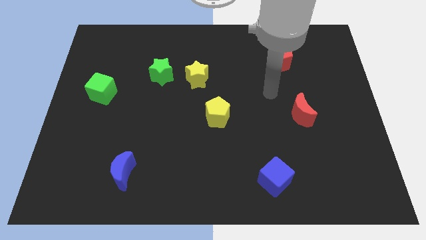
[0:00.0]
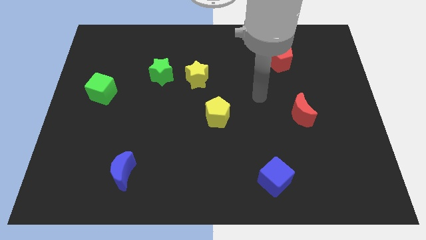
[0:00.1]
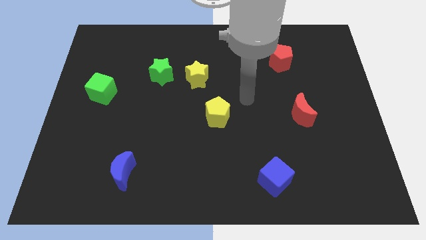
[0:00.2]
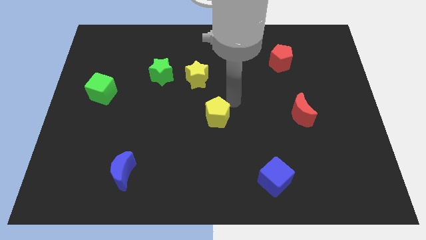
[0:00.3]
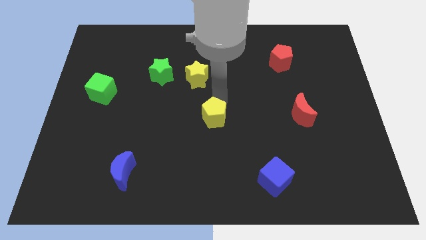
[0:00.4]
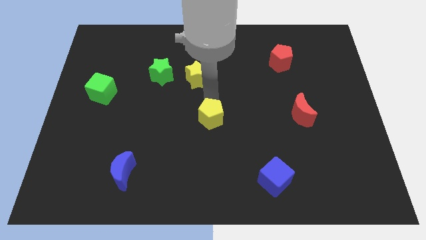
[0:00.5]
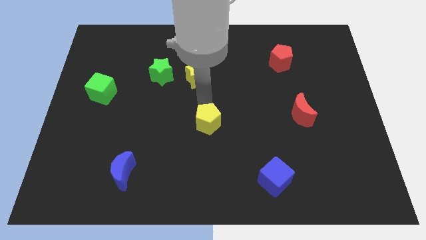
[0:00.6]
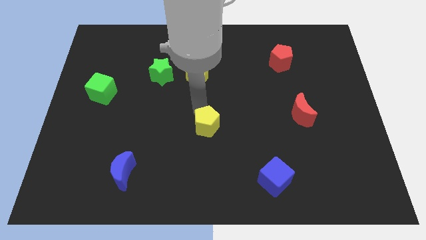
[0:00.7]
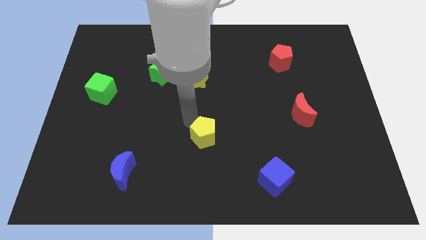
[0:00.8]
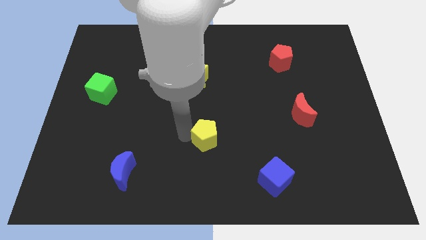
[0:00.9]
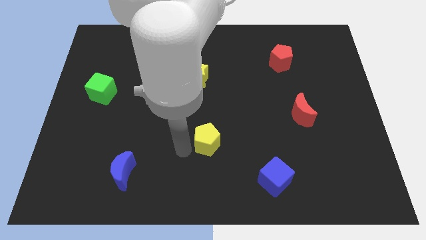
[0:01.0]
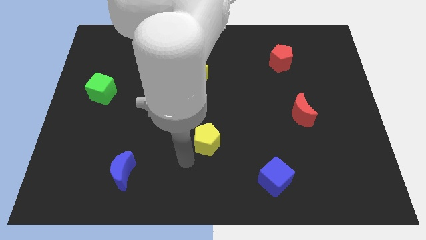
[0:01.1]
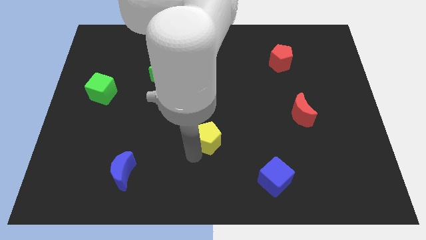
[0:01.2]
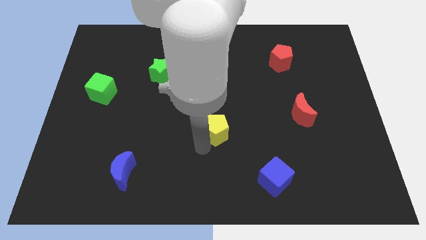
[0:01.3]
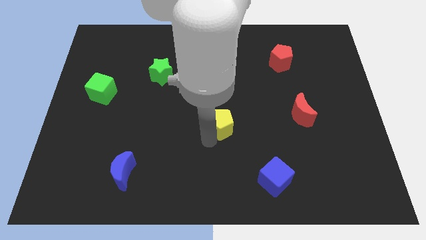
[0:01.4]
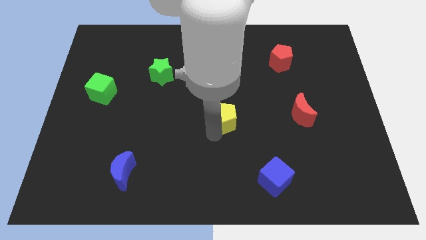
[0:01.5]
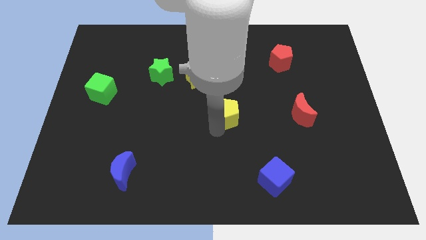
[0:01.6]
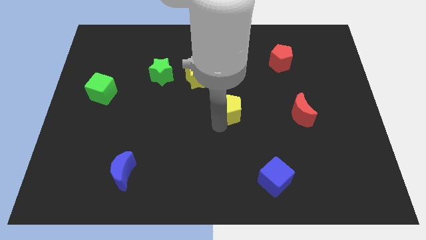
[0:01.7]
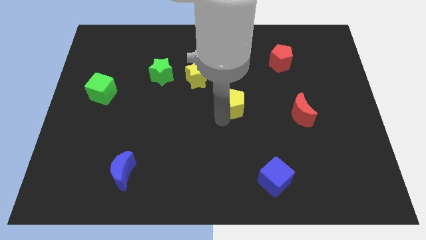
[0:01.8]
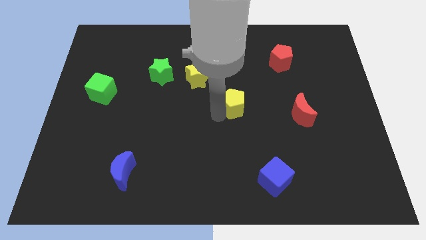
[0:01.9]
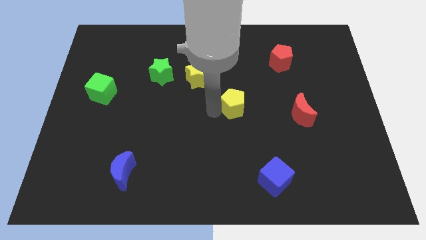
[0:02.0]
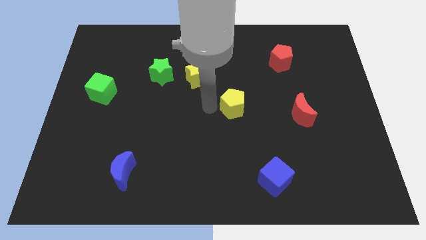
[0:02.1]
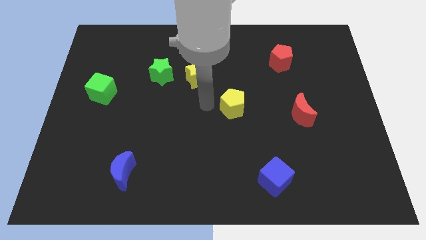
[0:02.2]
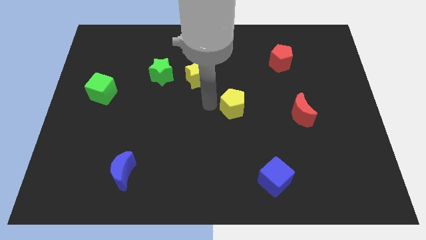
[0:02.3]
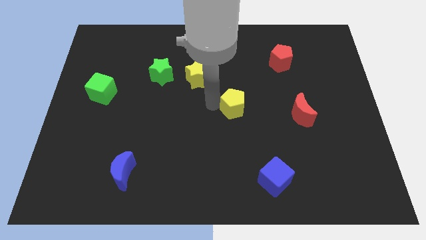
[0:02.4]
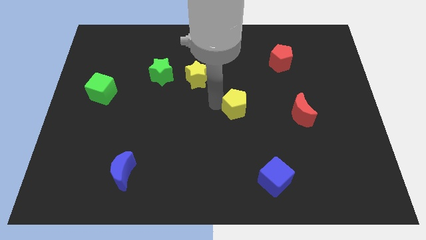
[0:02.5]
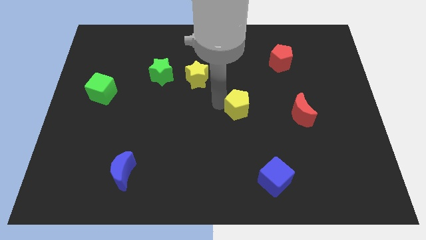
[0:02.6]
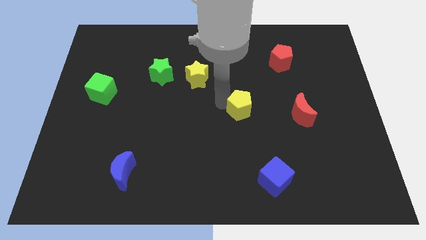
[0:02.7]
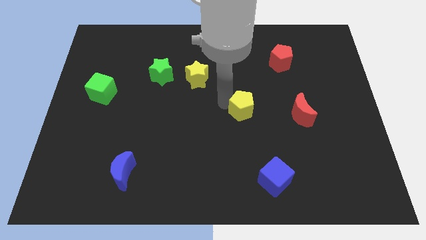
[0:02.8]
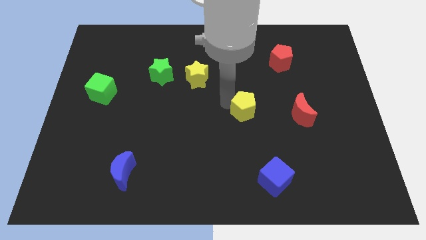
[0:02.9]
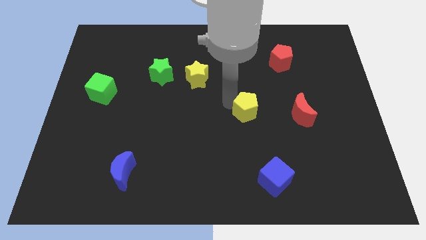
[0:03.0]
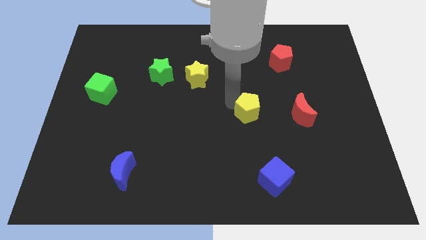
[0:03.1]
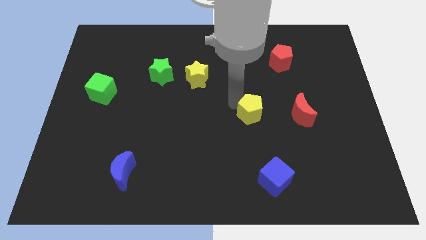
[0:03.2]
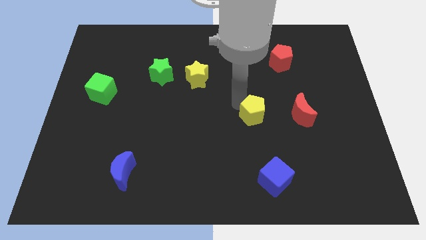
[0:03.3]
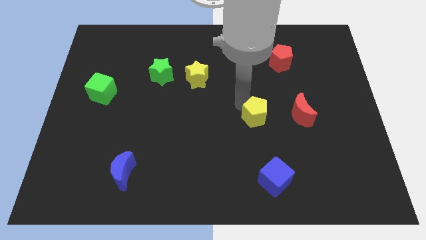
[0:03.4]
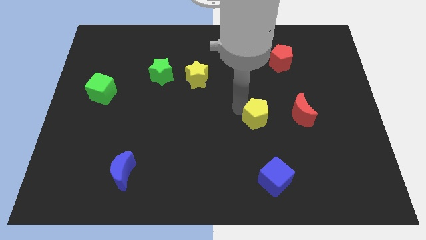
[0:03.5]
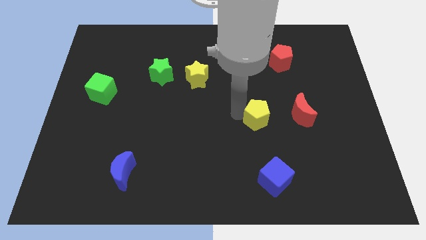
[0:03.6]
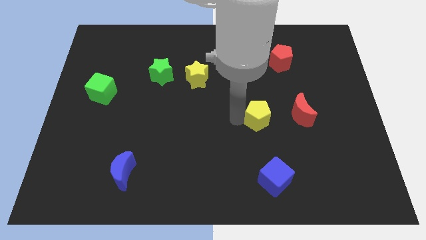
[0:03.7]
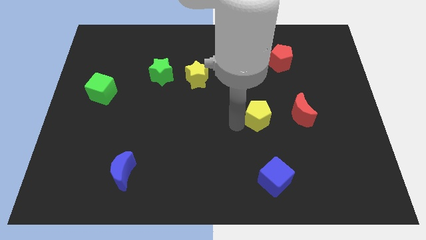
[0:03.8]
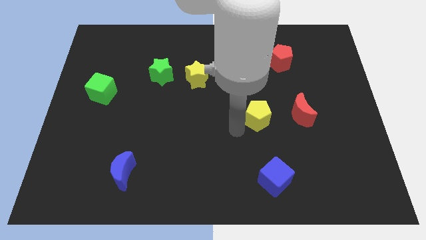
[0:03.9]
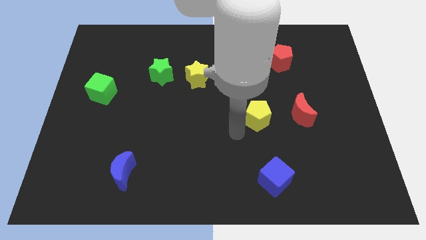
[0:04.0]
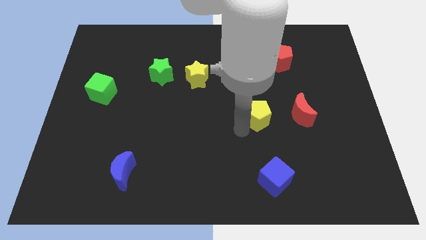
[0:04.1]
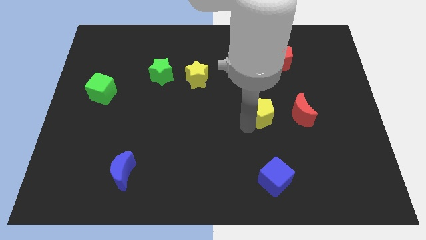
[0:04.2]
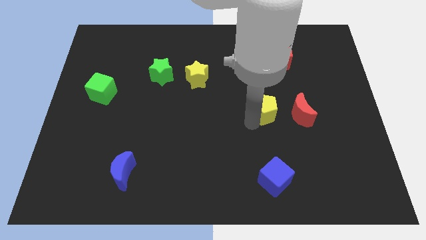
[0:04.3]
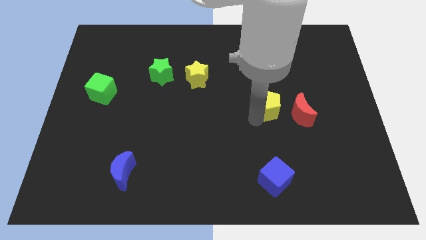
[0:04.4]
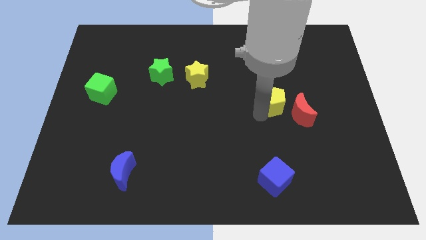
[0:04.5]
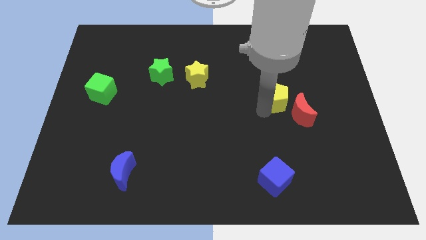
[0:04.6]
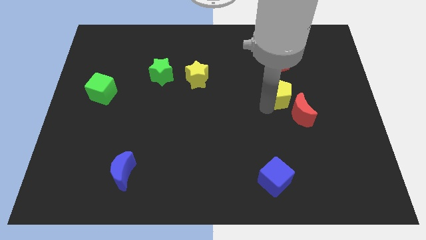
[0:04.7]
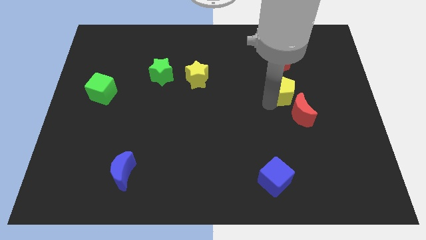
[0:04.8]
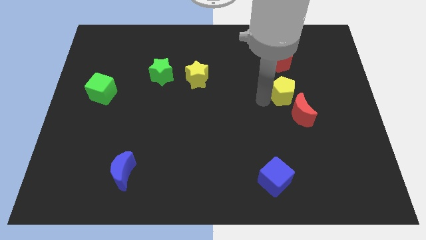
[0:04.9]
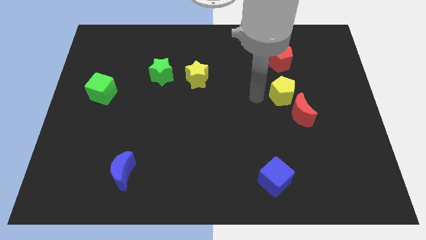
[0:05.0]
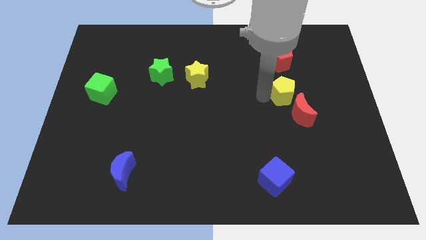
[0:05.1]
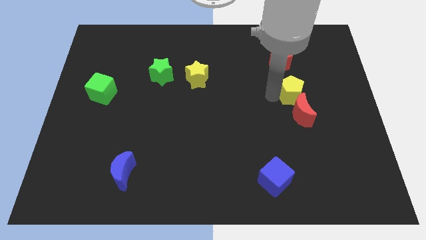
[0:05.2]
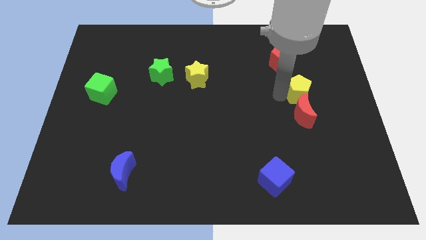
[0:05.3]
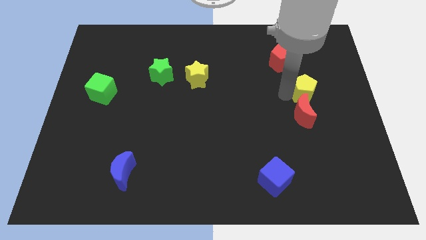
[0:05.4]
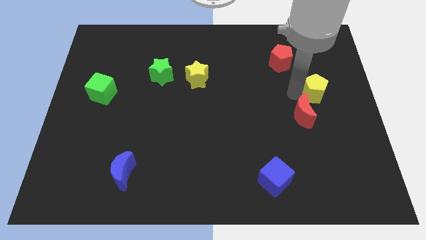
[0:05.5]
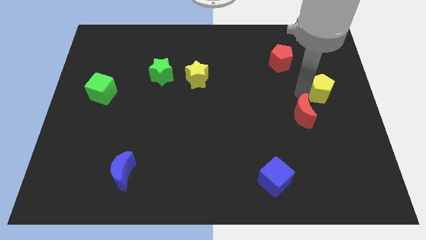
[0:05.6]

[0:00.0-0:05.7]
move the yellow pentagon to the right side of the board

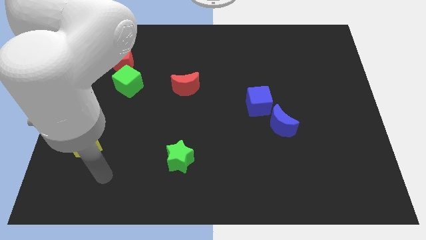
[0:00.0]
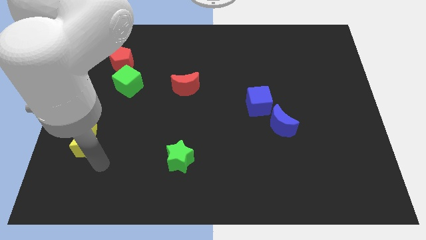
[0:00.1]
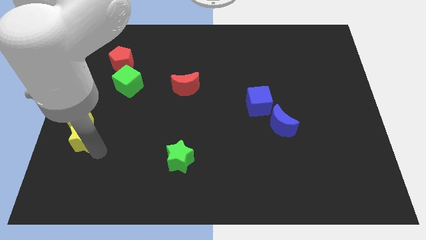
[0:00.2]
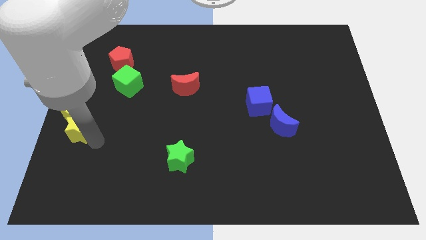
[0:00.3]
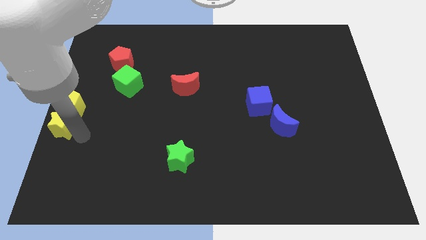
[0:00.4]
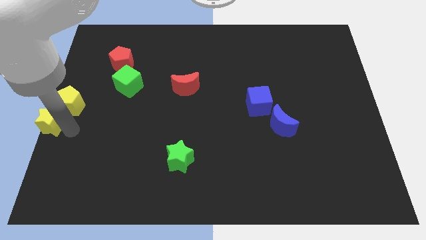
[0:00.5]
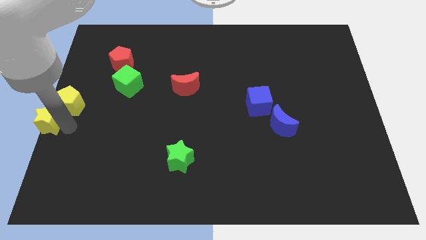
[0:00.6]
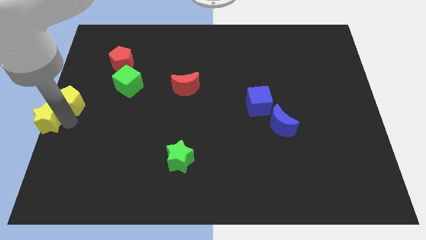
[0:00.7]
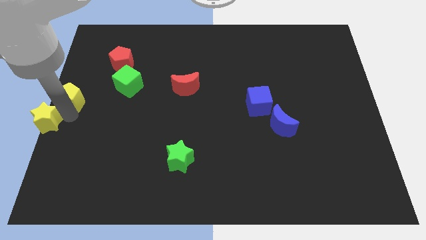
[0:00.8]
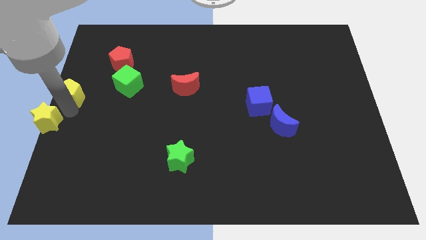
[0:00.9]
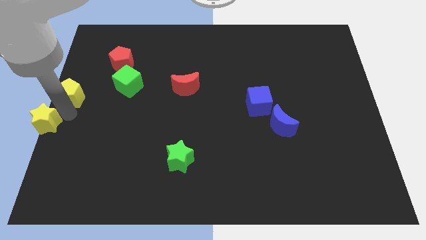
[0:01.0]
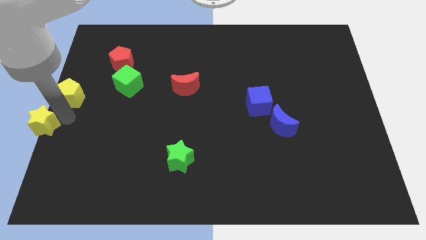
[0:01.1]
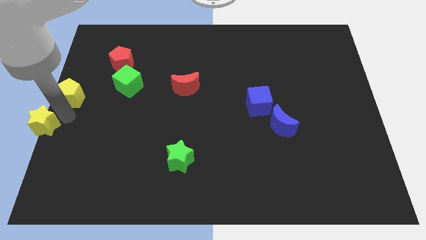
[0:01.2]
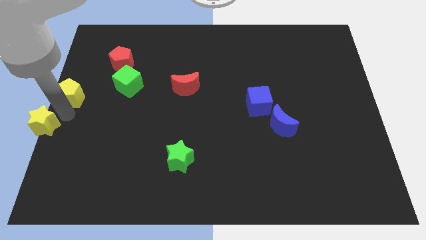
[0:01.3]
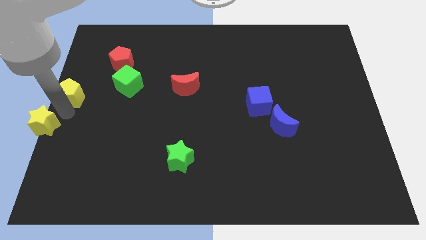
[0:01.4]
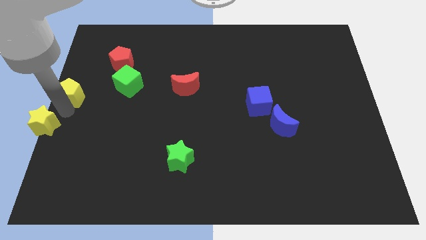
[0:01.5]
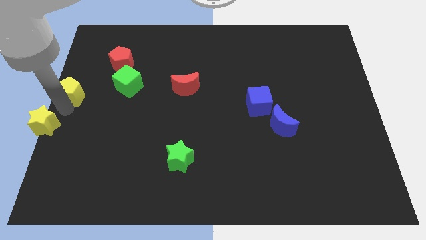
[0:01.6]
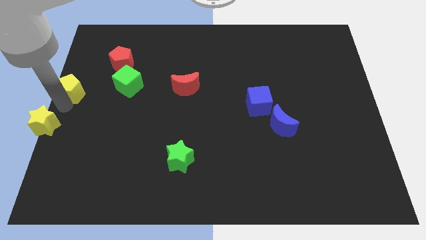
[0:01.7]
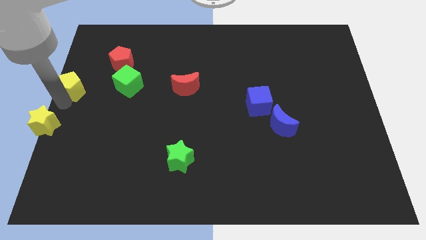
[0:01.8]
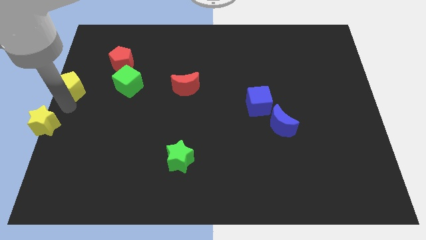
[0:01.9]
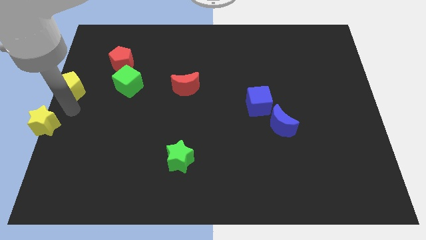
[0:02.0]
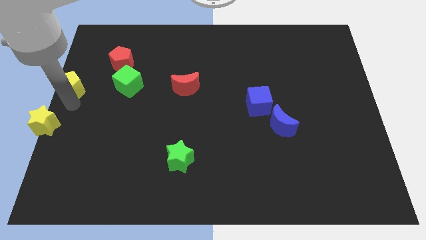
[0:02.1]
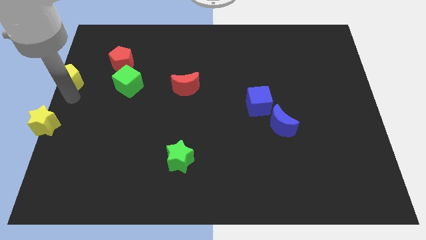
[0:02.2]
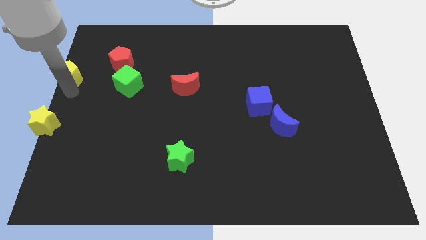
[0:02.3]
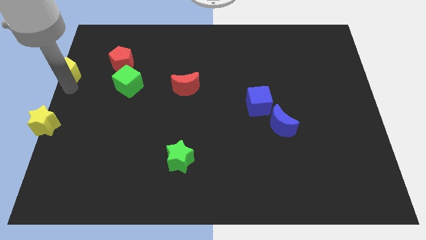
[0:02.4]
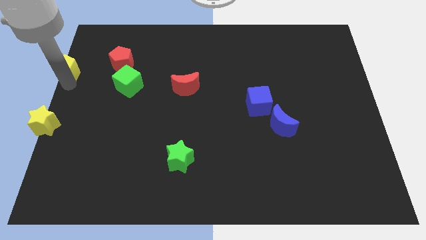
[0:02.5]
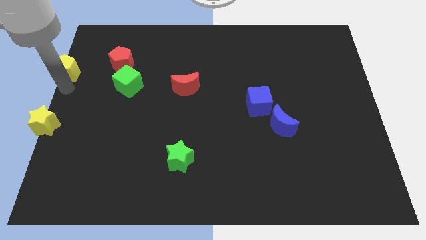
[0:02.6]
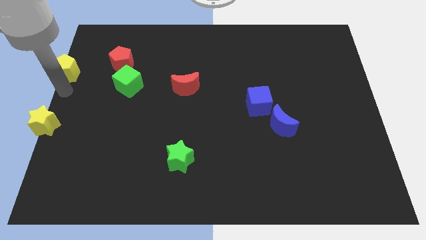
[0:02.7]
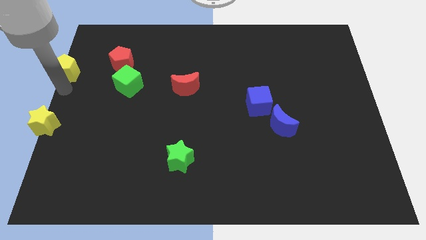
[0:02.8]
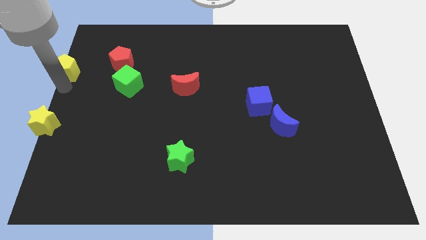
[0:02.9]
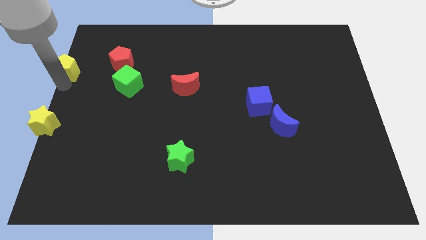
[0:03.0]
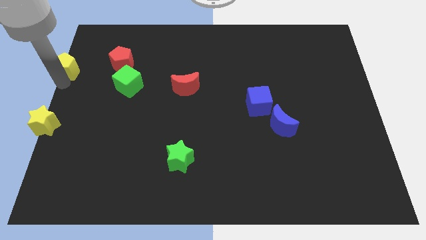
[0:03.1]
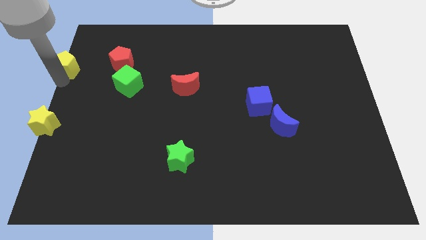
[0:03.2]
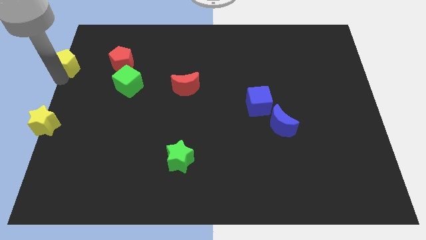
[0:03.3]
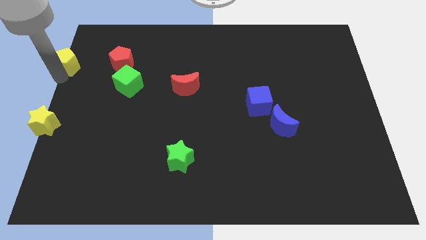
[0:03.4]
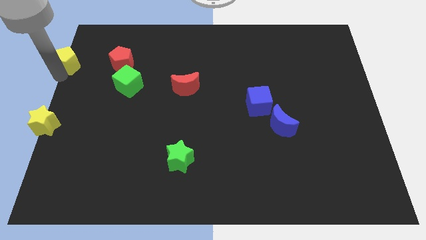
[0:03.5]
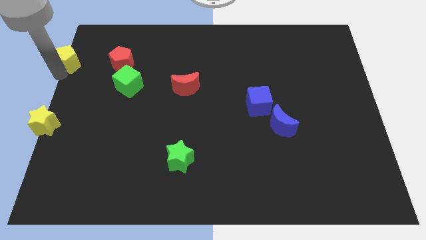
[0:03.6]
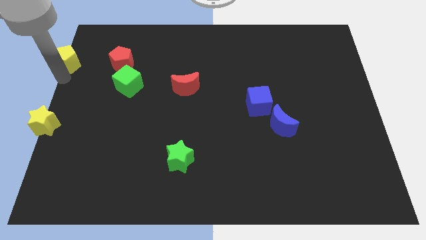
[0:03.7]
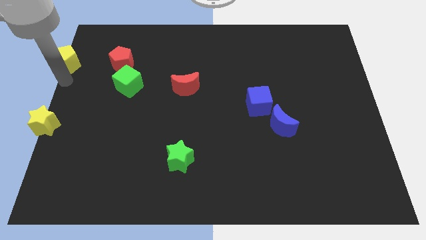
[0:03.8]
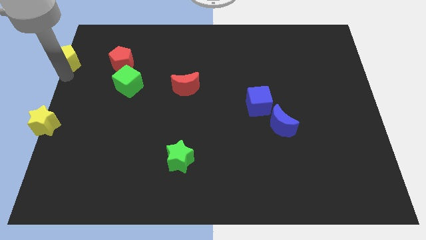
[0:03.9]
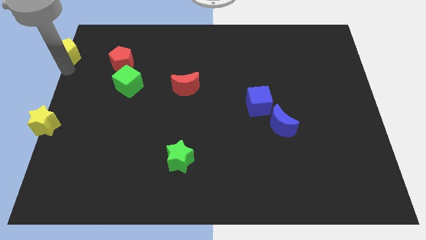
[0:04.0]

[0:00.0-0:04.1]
slide the yellow pentagon to the top left corner
